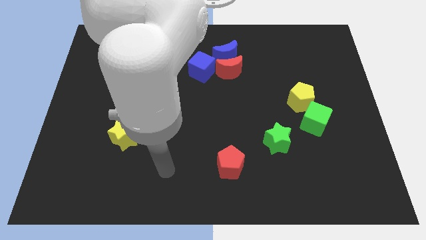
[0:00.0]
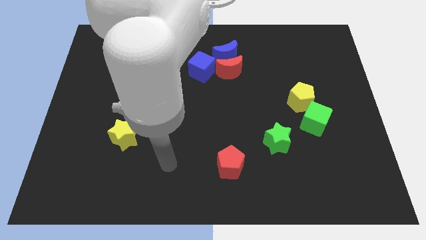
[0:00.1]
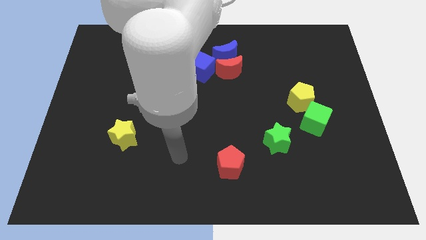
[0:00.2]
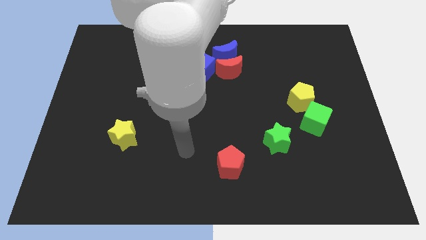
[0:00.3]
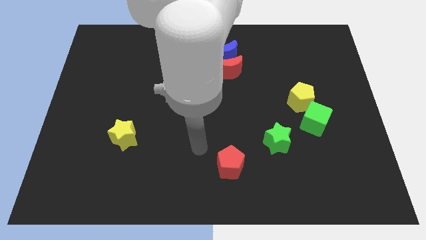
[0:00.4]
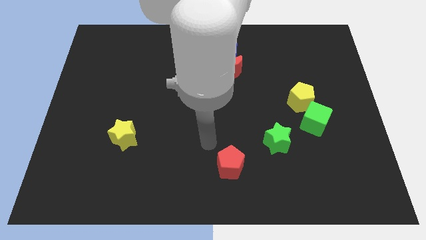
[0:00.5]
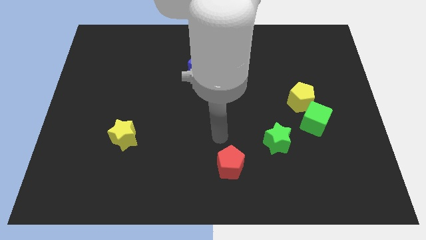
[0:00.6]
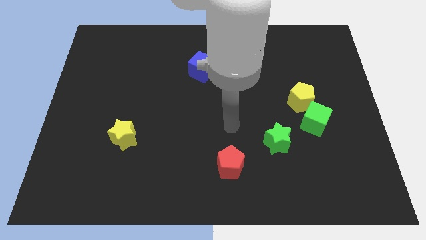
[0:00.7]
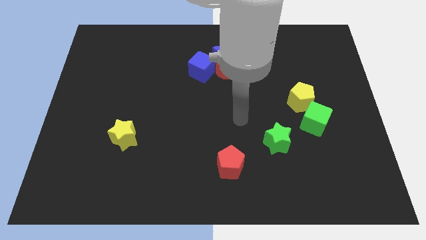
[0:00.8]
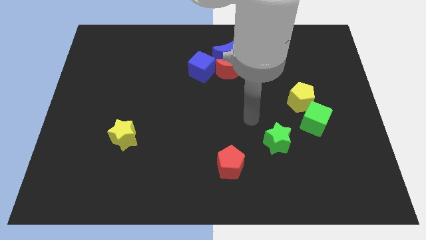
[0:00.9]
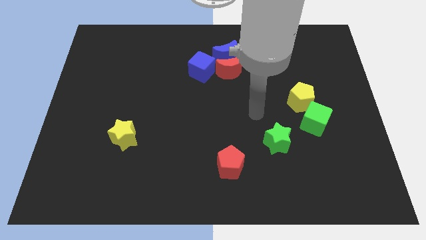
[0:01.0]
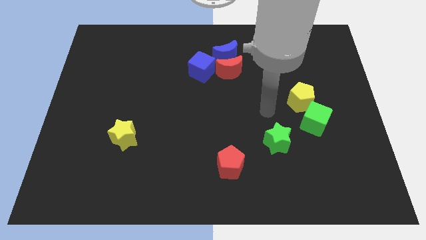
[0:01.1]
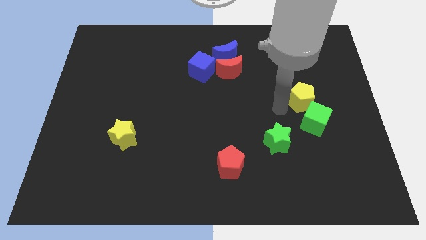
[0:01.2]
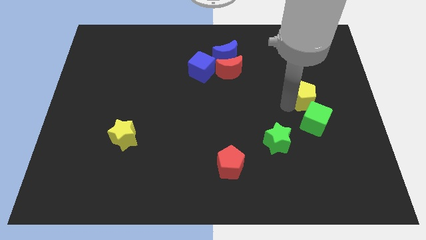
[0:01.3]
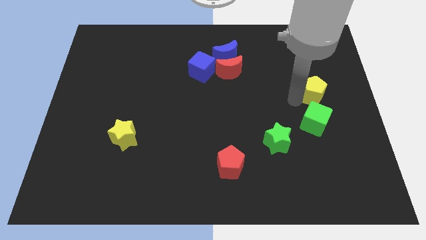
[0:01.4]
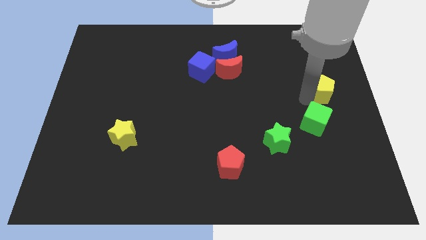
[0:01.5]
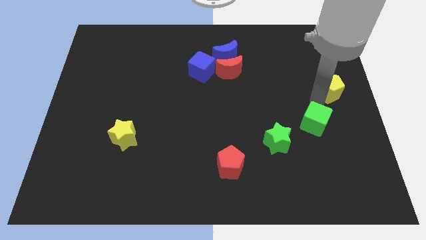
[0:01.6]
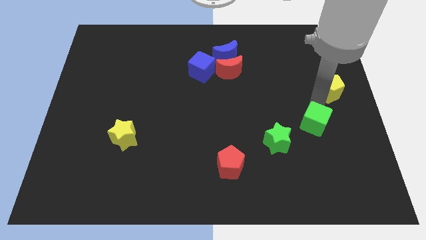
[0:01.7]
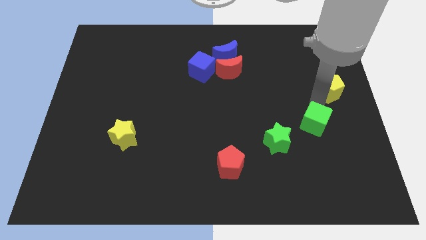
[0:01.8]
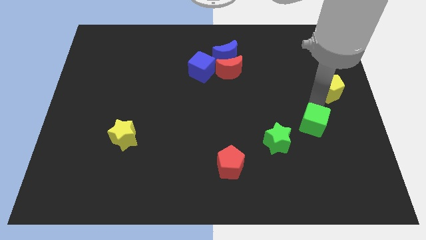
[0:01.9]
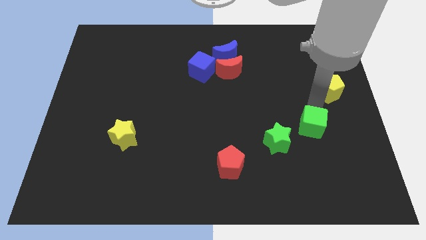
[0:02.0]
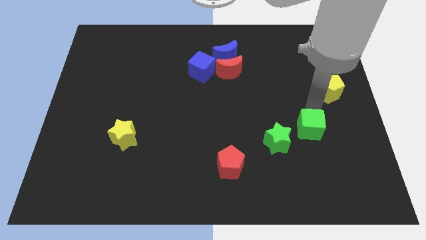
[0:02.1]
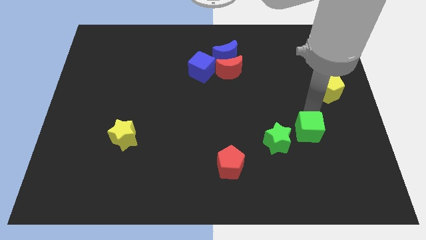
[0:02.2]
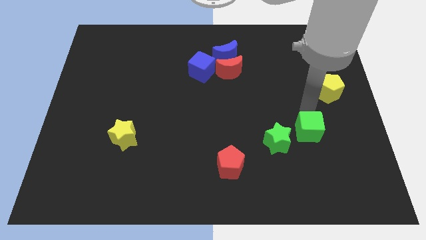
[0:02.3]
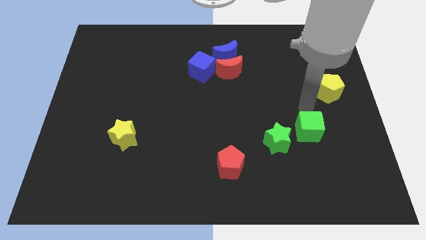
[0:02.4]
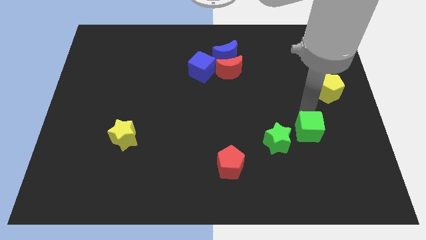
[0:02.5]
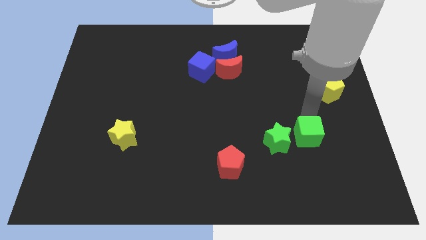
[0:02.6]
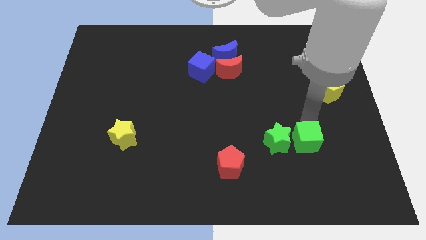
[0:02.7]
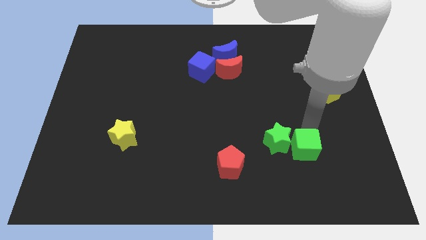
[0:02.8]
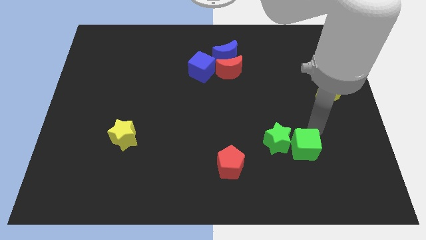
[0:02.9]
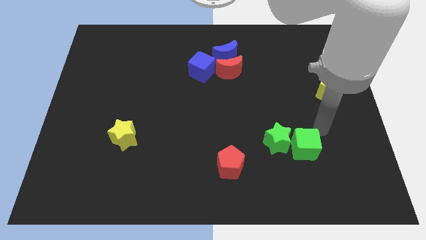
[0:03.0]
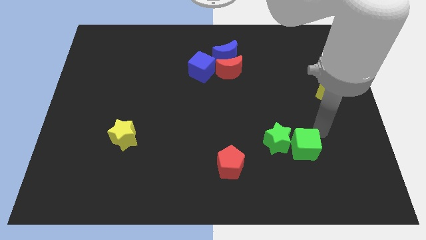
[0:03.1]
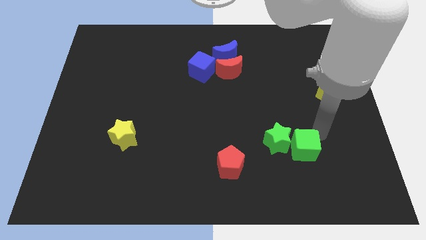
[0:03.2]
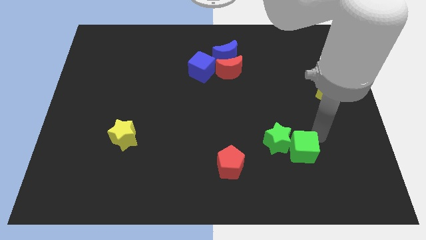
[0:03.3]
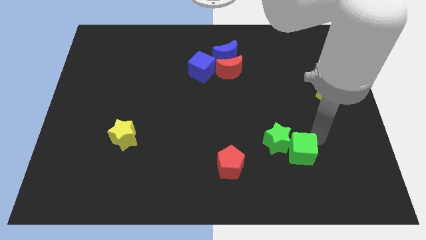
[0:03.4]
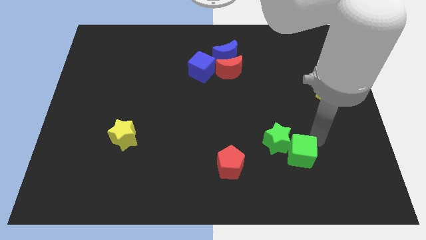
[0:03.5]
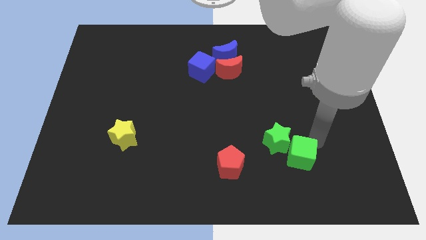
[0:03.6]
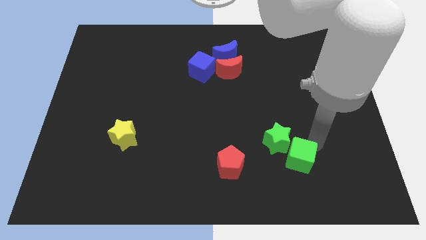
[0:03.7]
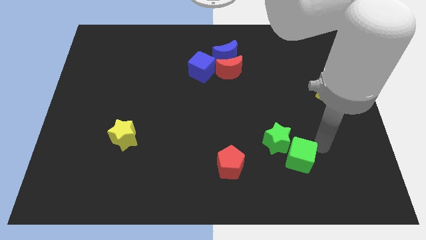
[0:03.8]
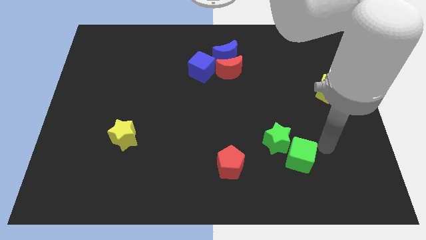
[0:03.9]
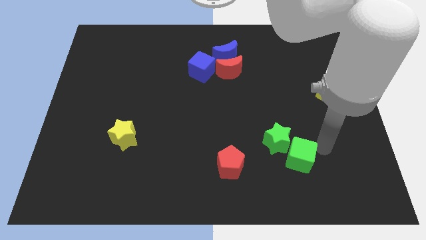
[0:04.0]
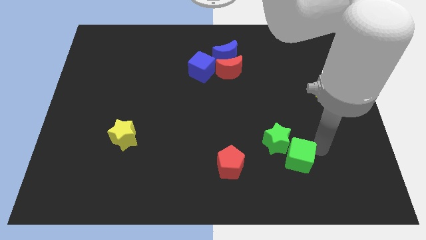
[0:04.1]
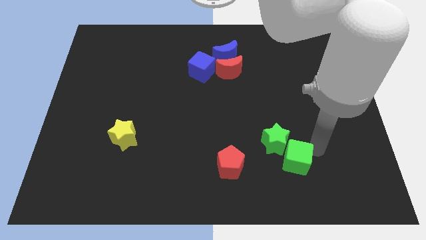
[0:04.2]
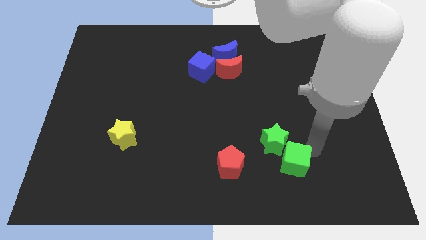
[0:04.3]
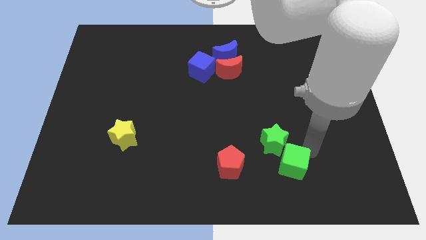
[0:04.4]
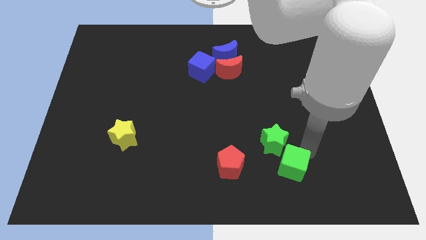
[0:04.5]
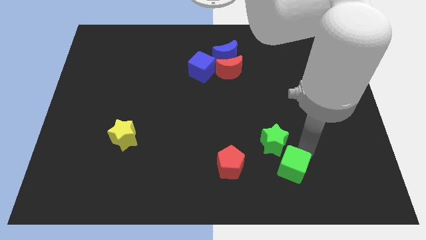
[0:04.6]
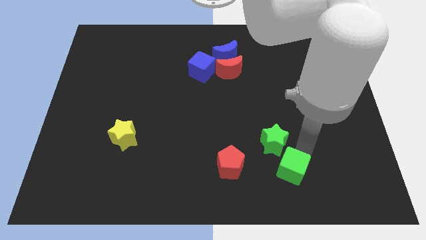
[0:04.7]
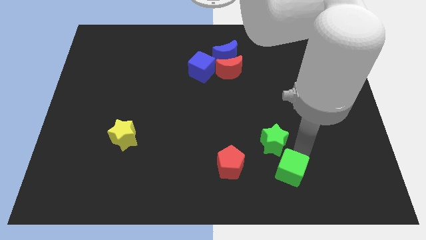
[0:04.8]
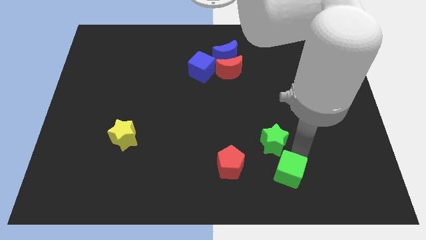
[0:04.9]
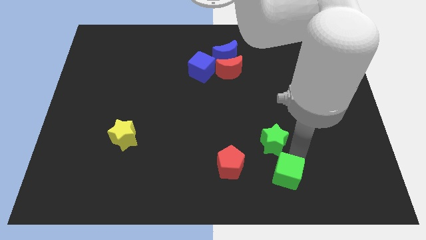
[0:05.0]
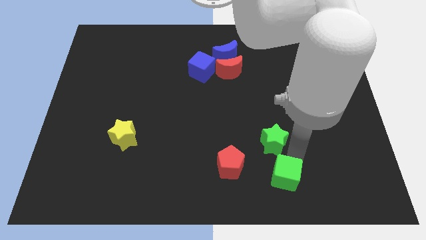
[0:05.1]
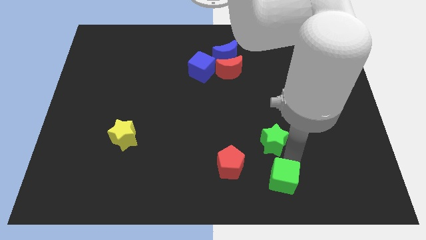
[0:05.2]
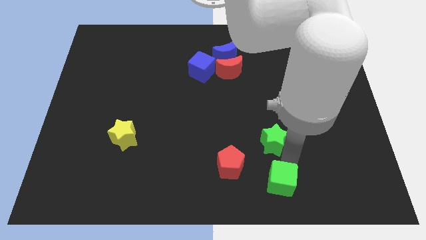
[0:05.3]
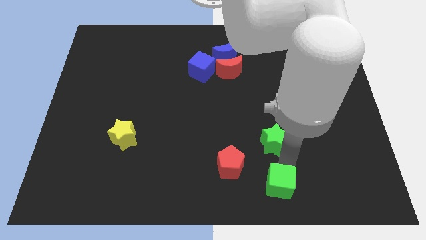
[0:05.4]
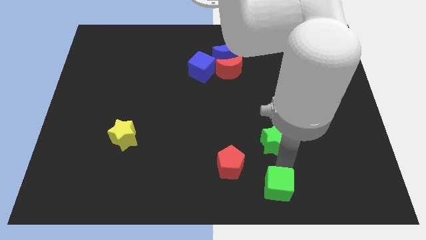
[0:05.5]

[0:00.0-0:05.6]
put the green cube to the bottom
